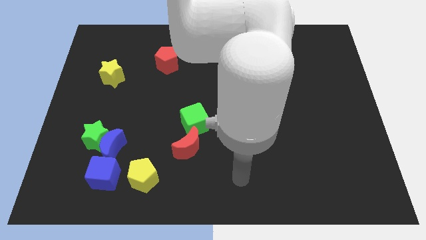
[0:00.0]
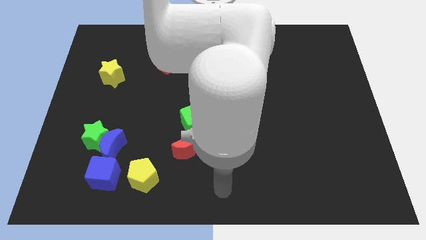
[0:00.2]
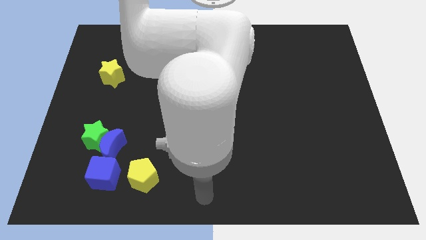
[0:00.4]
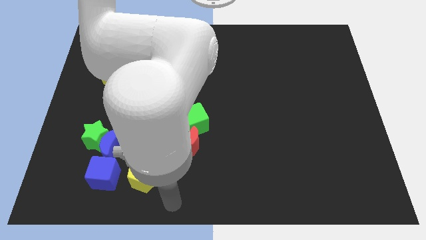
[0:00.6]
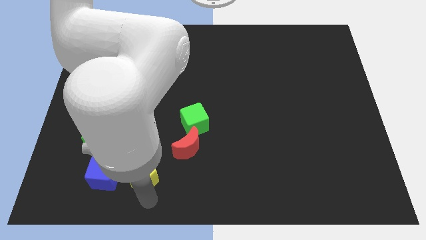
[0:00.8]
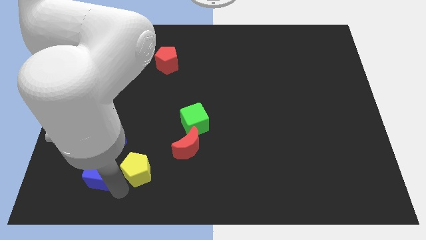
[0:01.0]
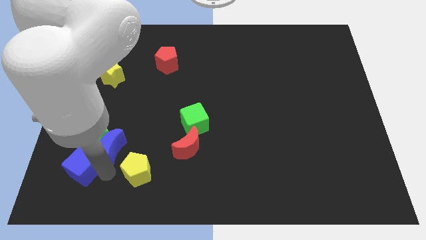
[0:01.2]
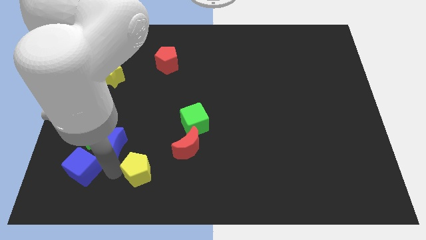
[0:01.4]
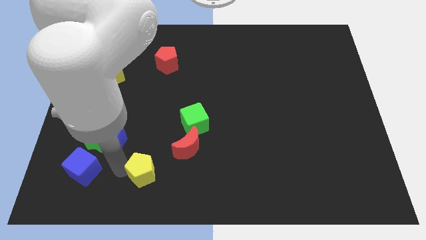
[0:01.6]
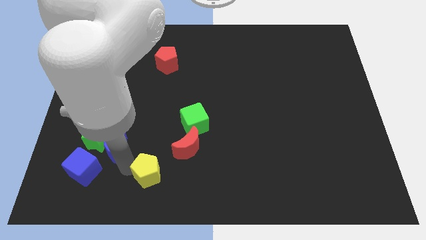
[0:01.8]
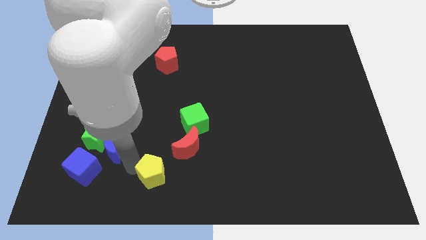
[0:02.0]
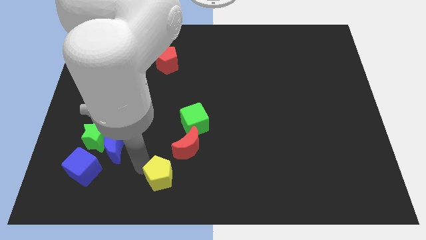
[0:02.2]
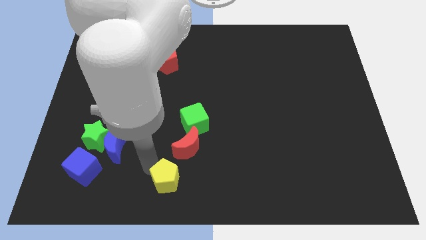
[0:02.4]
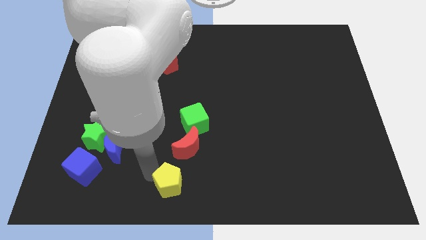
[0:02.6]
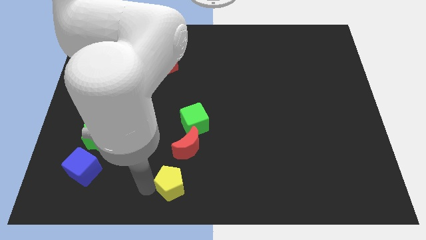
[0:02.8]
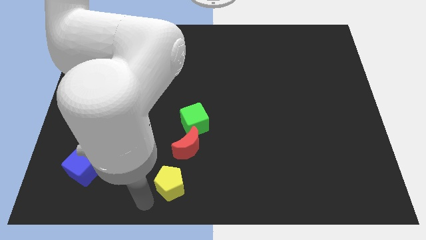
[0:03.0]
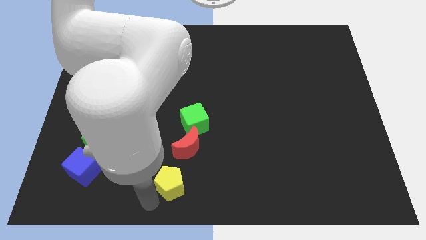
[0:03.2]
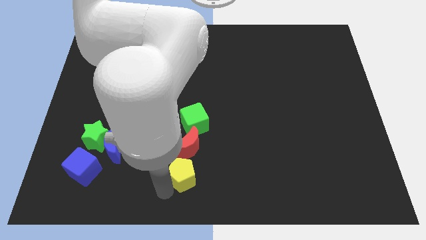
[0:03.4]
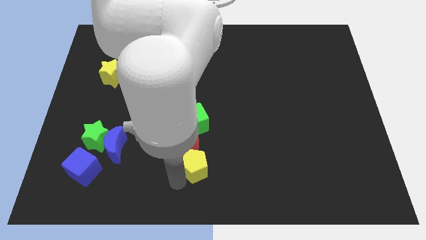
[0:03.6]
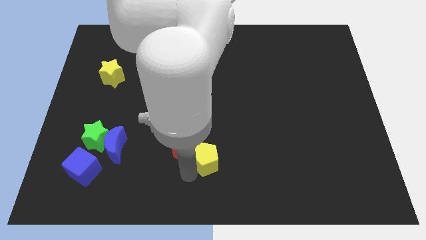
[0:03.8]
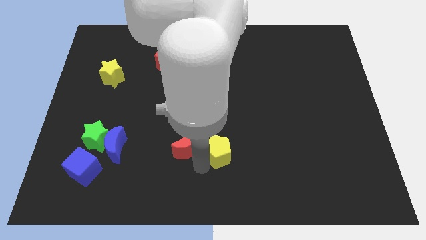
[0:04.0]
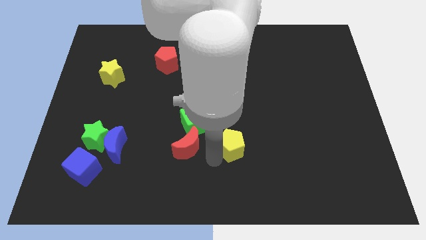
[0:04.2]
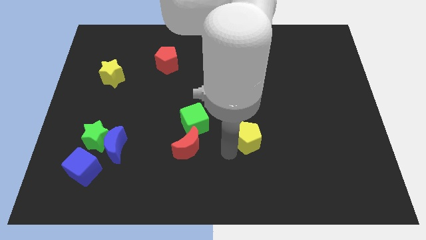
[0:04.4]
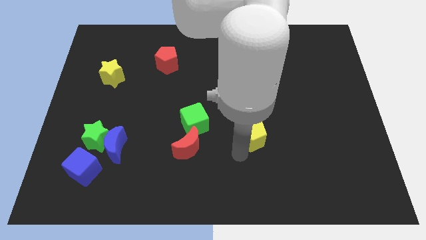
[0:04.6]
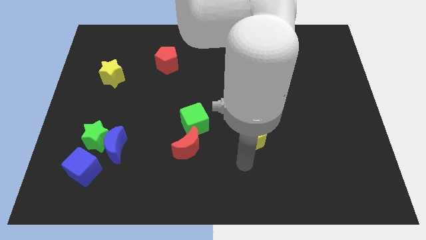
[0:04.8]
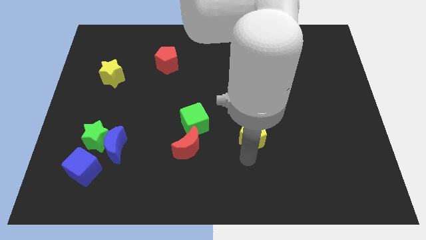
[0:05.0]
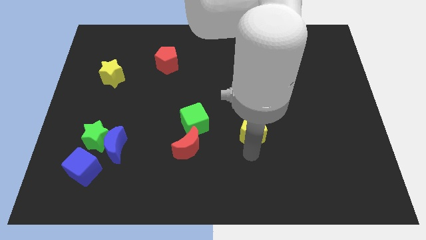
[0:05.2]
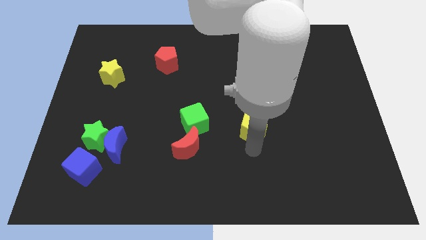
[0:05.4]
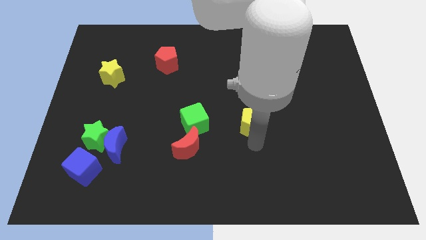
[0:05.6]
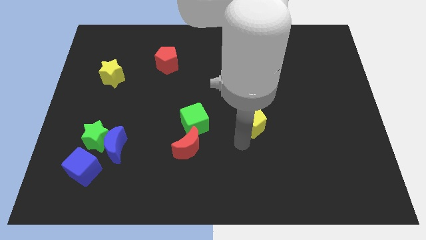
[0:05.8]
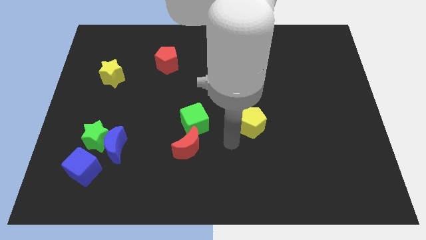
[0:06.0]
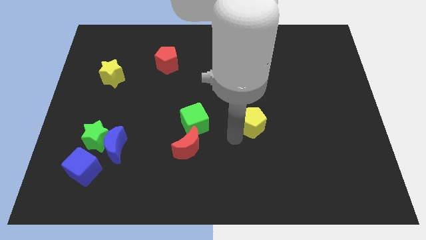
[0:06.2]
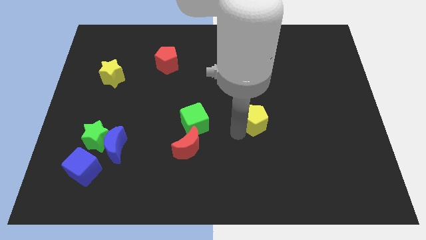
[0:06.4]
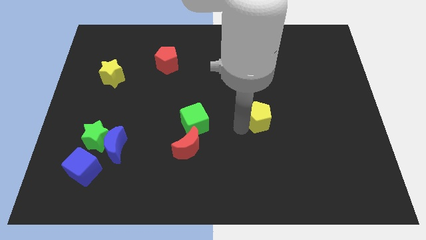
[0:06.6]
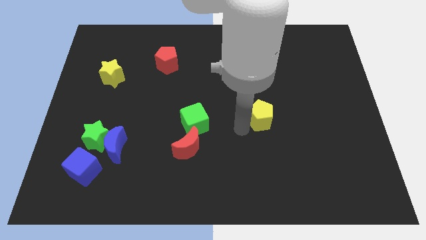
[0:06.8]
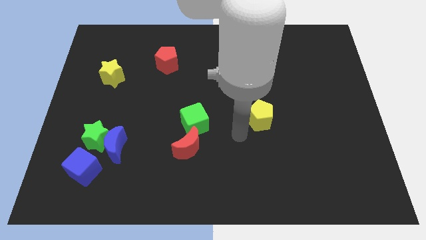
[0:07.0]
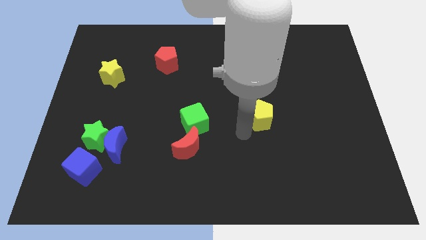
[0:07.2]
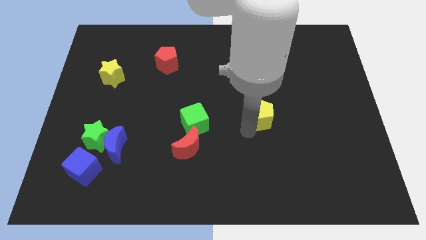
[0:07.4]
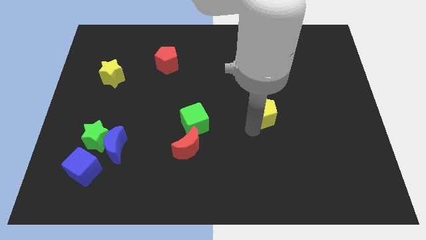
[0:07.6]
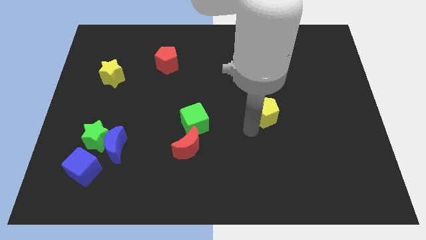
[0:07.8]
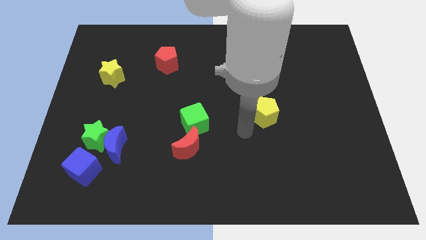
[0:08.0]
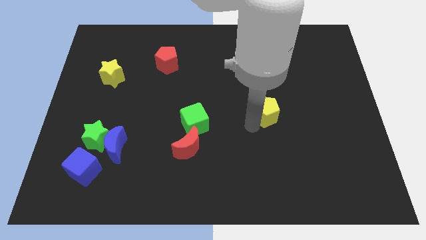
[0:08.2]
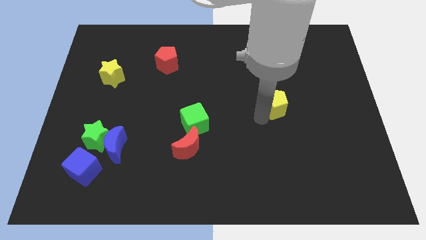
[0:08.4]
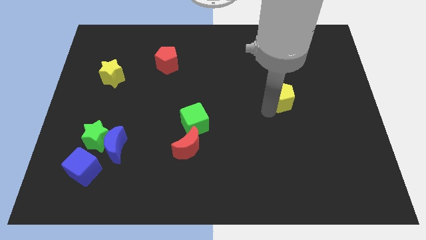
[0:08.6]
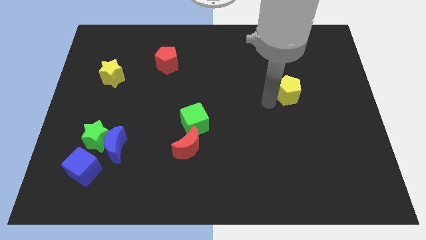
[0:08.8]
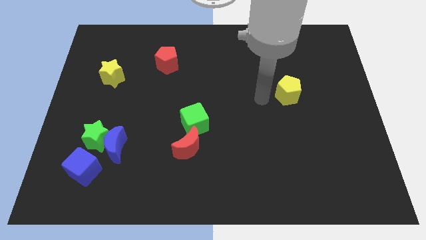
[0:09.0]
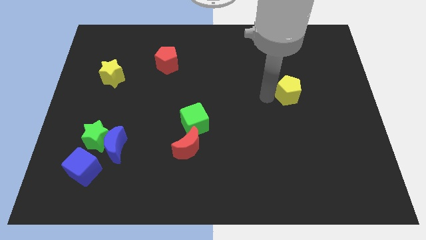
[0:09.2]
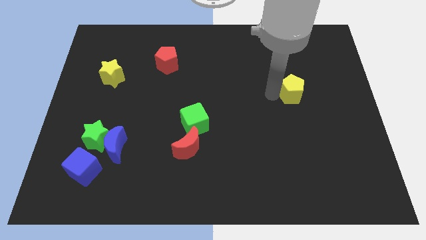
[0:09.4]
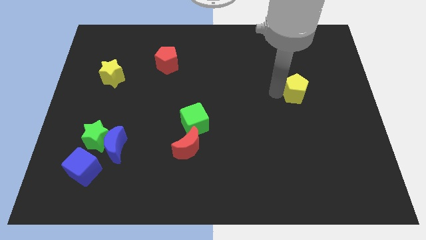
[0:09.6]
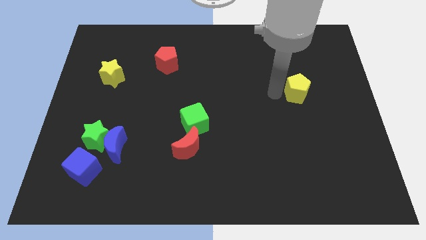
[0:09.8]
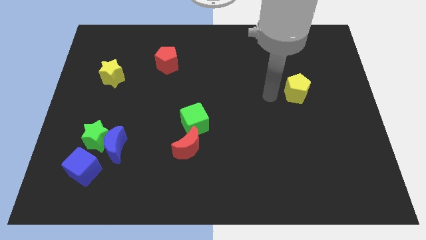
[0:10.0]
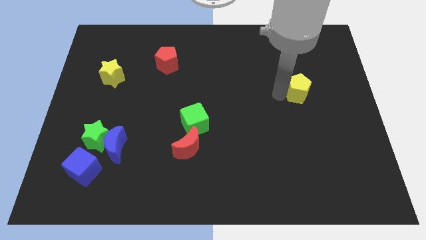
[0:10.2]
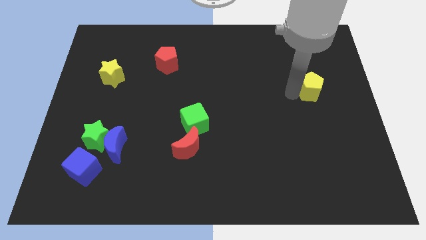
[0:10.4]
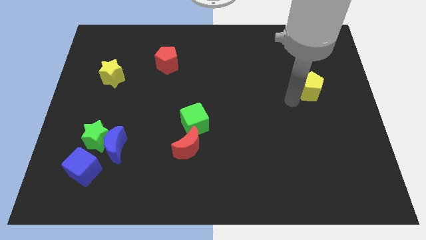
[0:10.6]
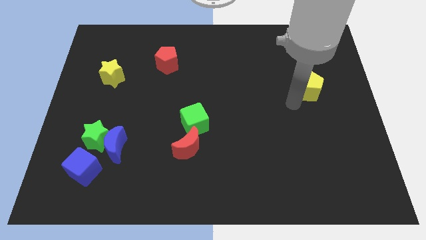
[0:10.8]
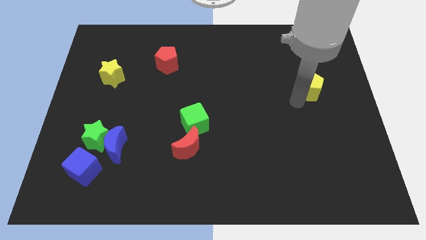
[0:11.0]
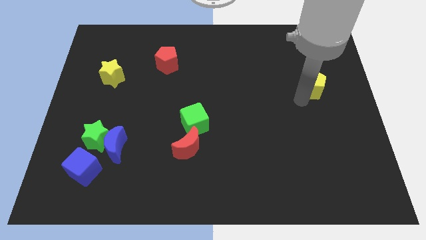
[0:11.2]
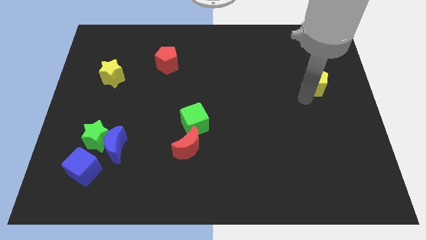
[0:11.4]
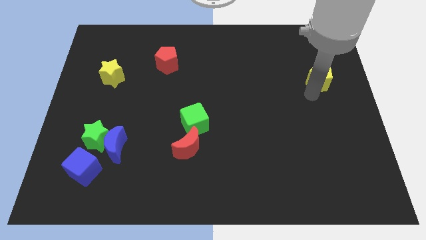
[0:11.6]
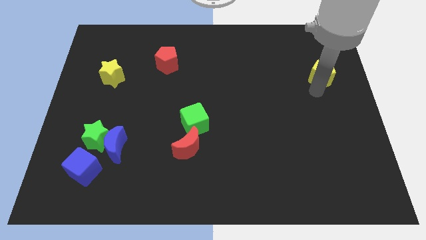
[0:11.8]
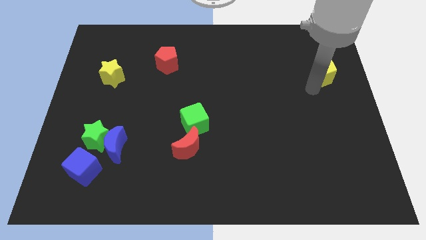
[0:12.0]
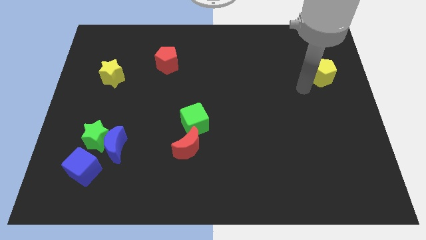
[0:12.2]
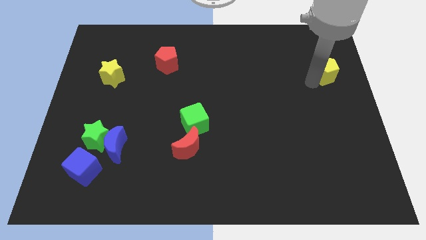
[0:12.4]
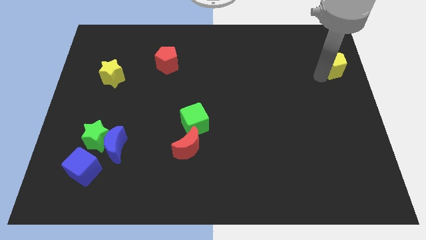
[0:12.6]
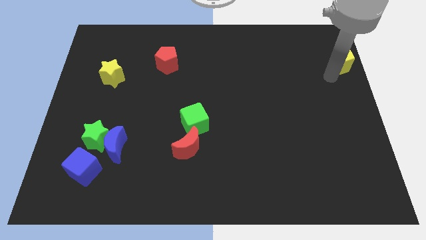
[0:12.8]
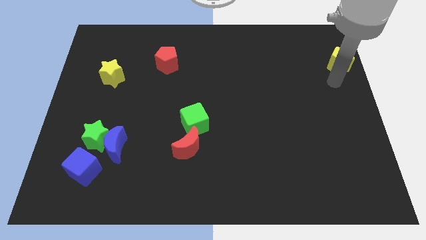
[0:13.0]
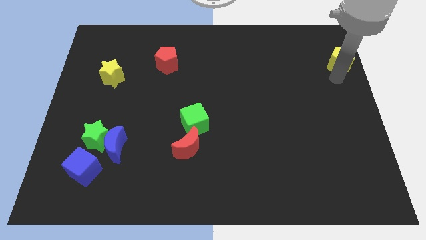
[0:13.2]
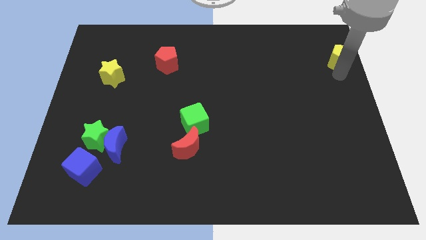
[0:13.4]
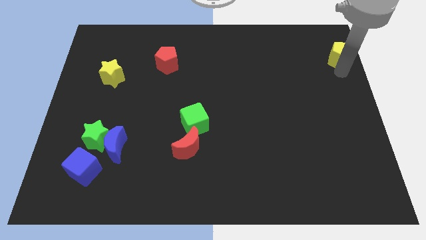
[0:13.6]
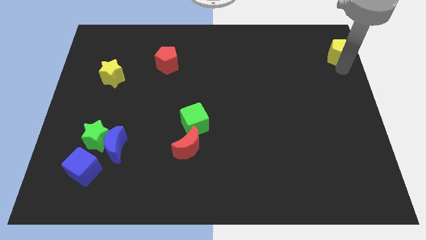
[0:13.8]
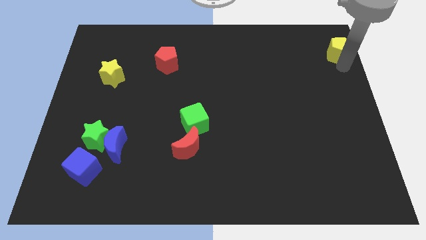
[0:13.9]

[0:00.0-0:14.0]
put the yellow pentagon to the top right corner
